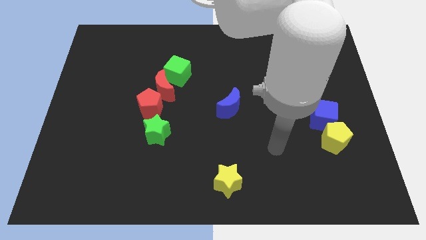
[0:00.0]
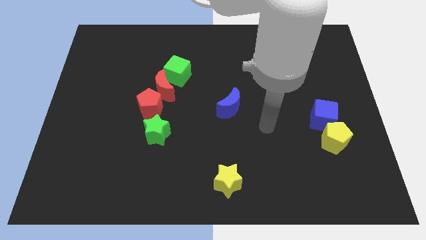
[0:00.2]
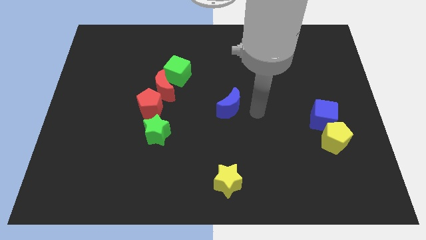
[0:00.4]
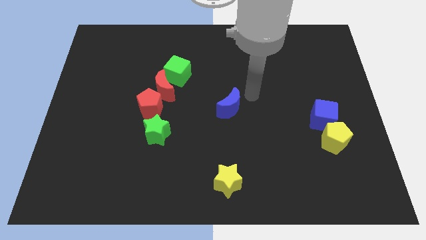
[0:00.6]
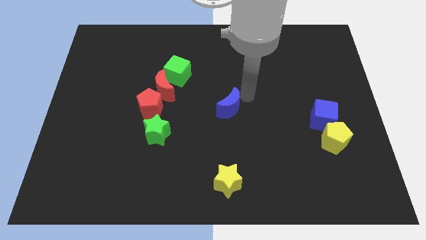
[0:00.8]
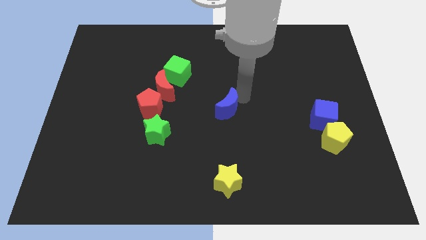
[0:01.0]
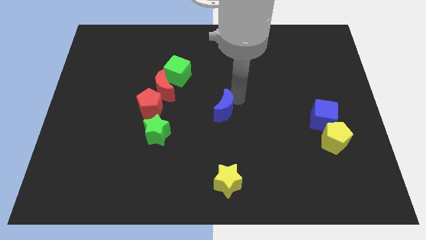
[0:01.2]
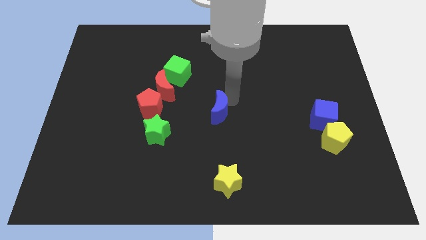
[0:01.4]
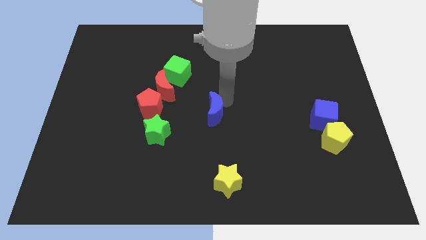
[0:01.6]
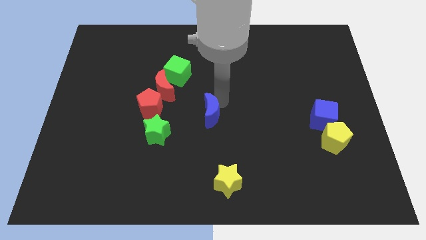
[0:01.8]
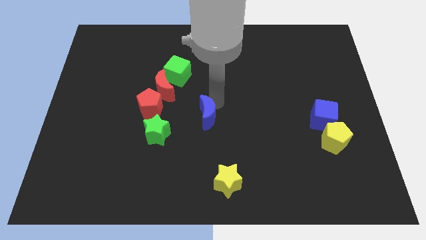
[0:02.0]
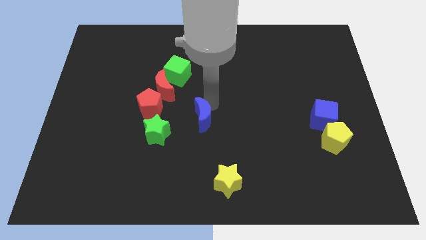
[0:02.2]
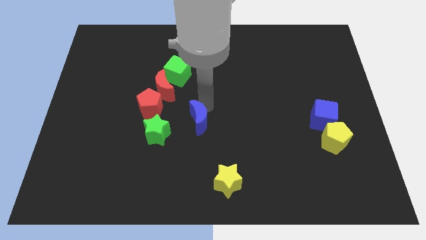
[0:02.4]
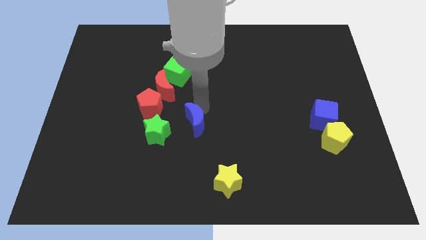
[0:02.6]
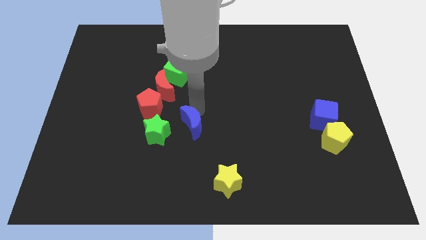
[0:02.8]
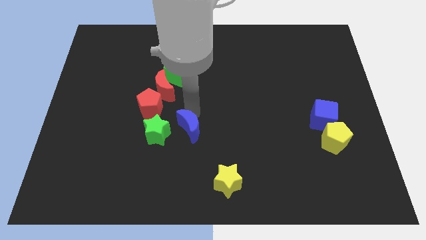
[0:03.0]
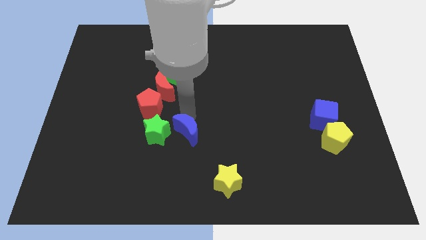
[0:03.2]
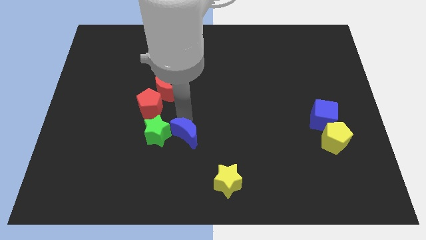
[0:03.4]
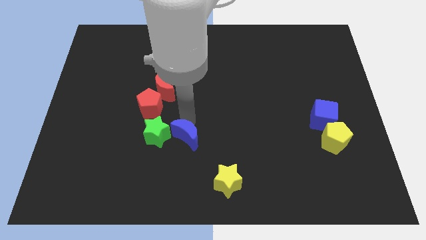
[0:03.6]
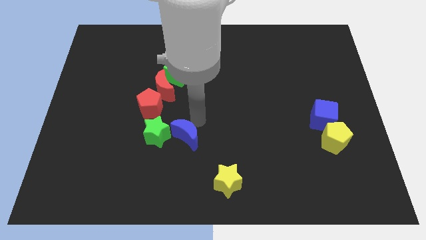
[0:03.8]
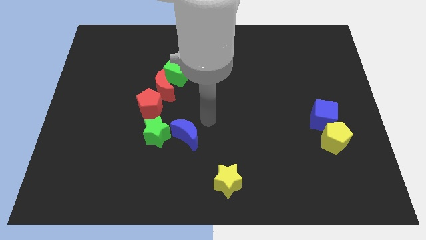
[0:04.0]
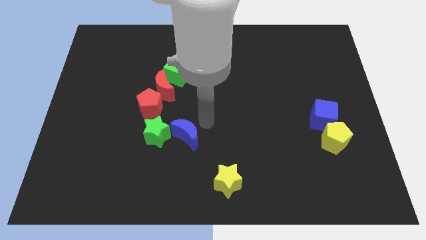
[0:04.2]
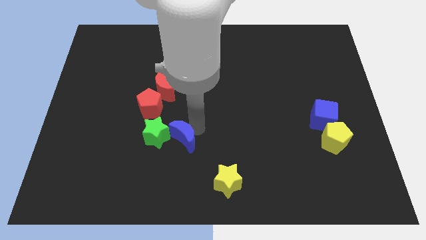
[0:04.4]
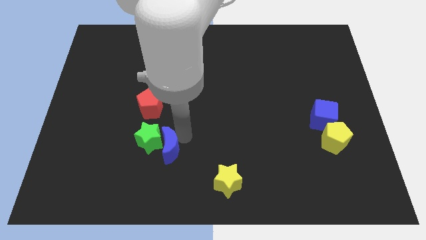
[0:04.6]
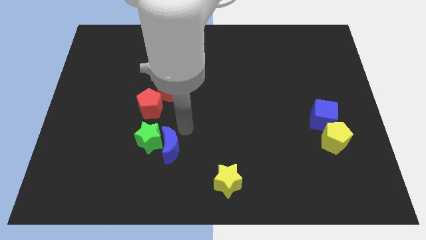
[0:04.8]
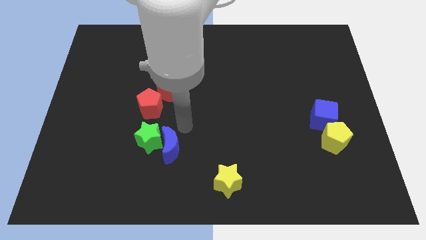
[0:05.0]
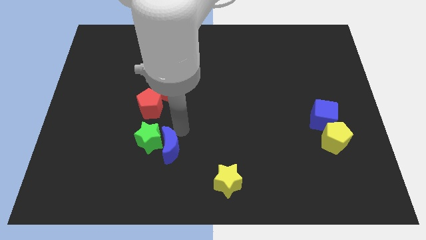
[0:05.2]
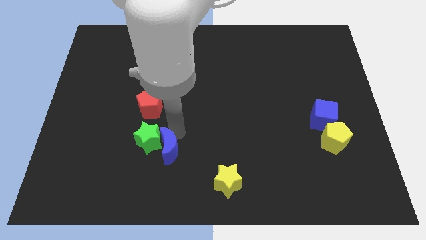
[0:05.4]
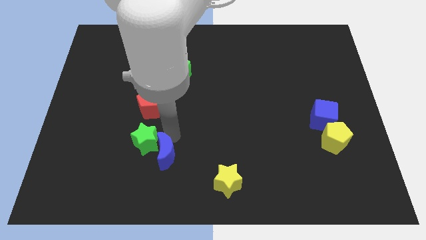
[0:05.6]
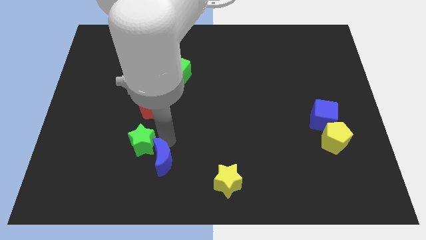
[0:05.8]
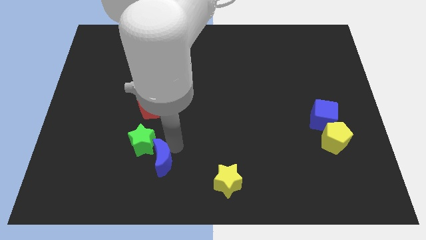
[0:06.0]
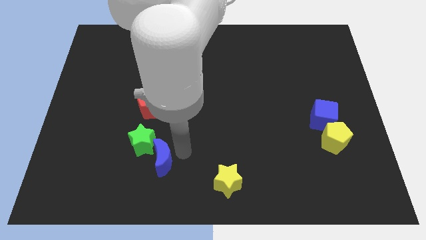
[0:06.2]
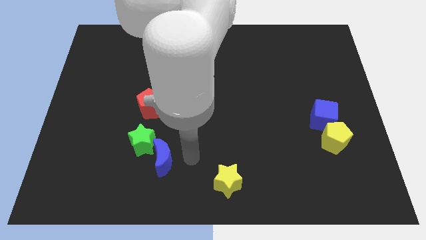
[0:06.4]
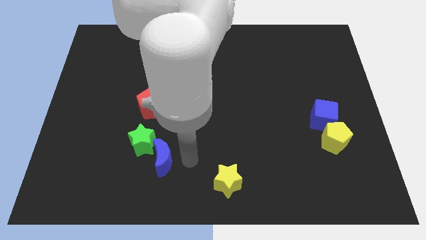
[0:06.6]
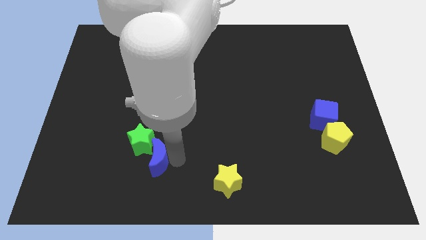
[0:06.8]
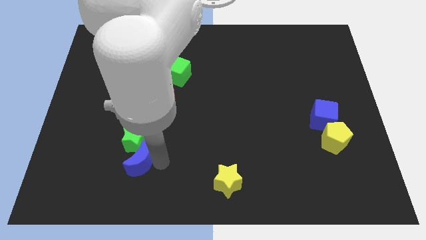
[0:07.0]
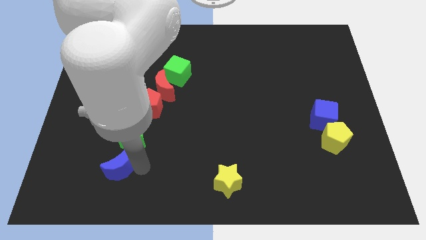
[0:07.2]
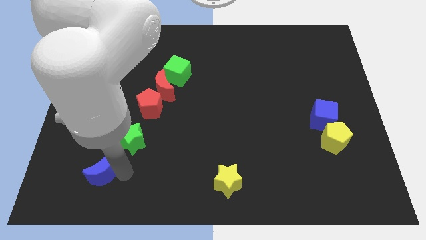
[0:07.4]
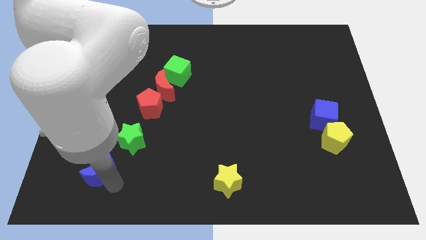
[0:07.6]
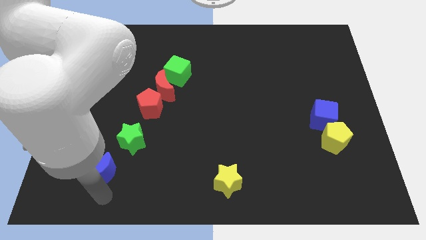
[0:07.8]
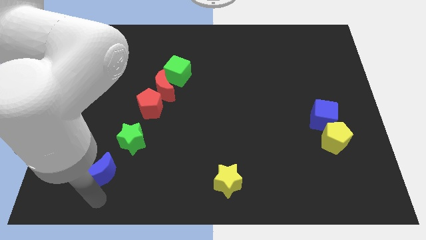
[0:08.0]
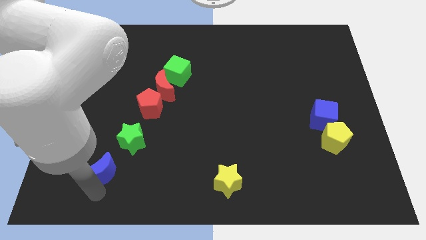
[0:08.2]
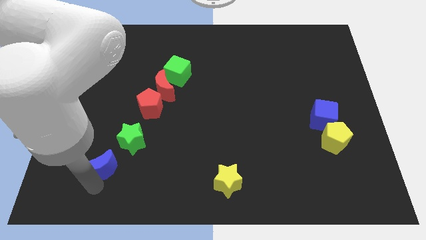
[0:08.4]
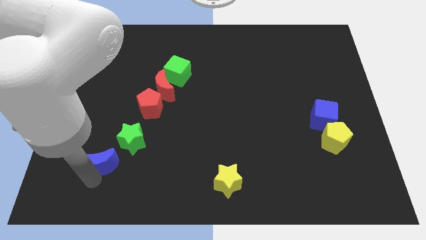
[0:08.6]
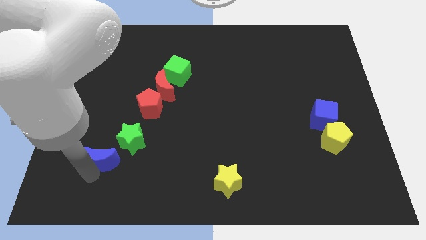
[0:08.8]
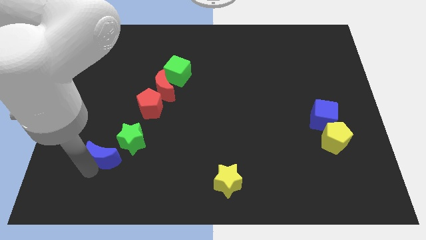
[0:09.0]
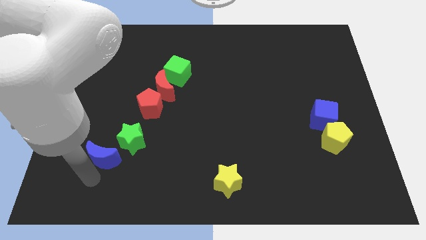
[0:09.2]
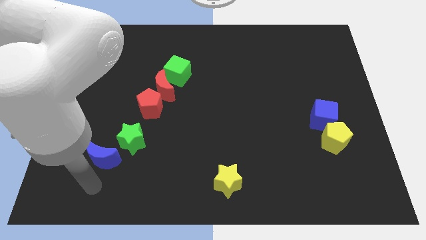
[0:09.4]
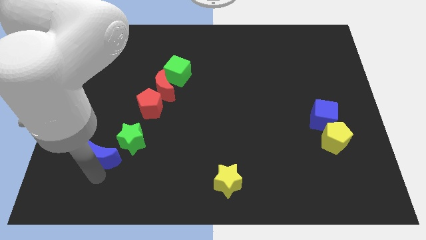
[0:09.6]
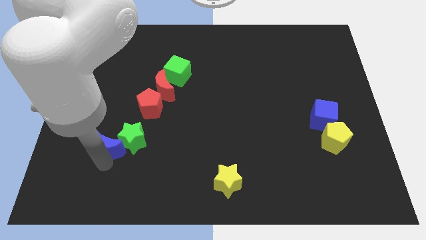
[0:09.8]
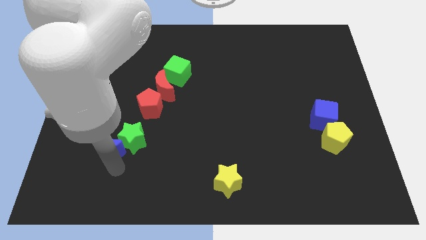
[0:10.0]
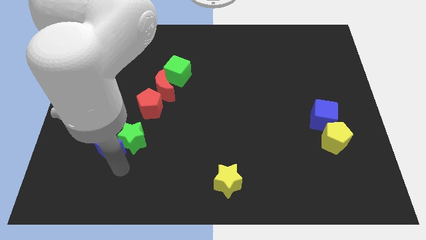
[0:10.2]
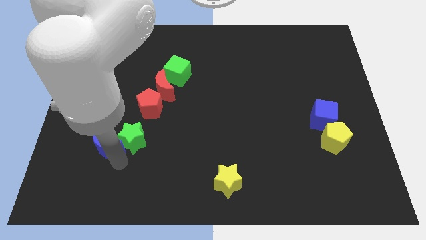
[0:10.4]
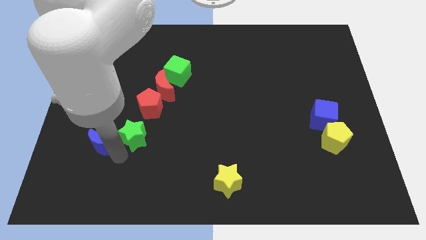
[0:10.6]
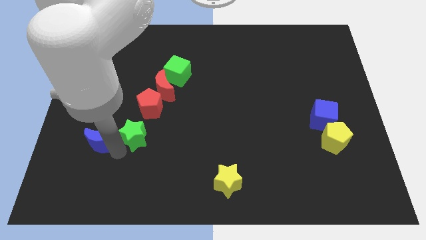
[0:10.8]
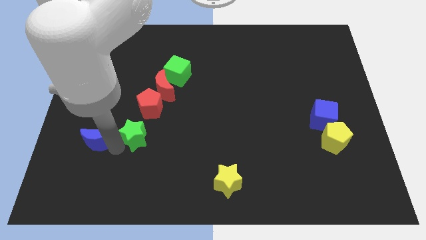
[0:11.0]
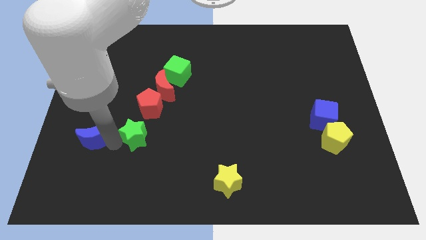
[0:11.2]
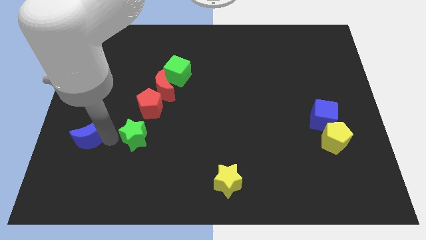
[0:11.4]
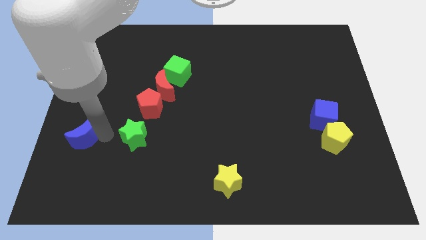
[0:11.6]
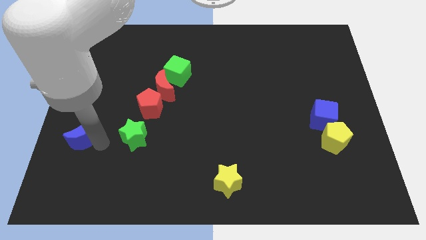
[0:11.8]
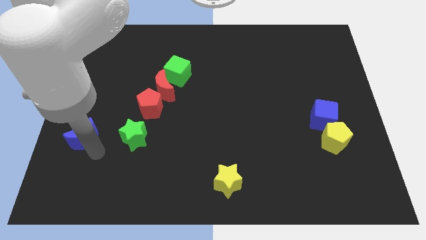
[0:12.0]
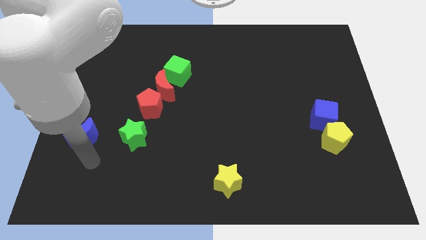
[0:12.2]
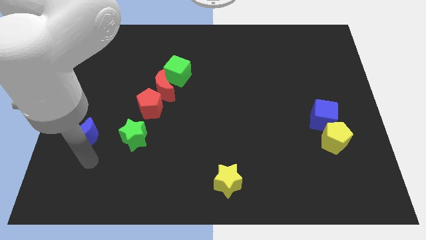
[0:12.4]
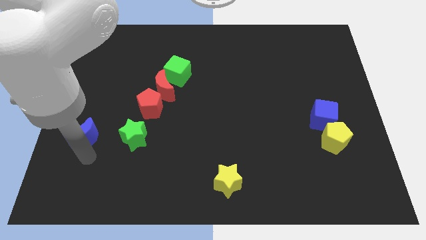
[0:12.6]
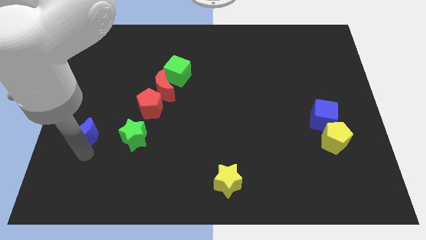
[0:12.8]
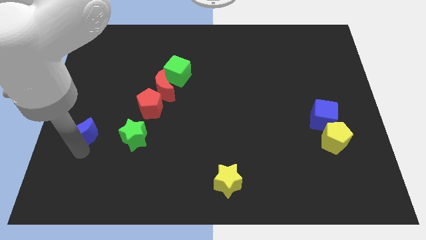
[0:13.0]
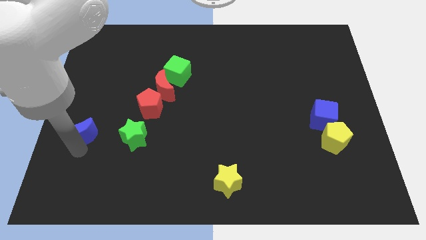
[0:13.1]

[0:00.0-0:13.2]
move the blue moon to the left side

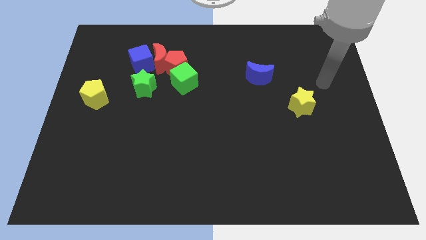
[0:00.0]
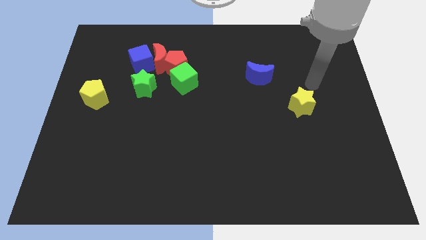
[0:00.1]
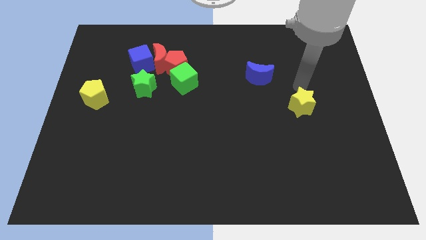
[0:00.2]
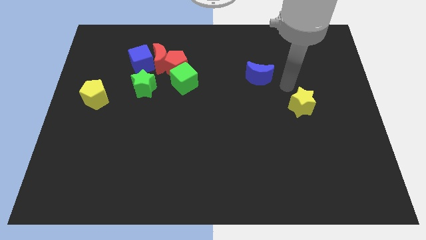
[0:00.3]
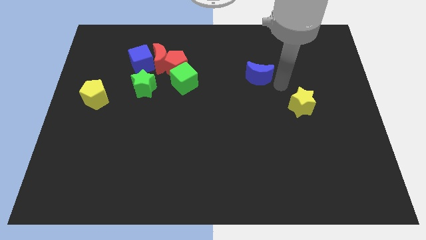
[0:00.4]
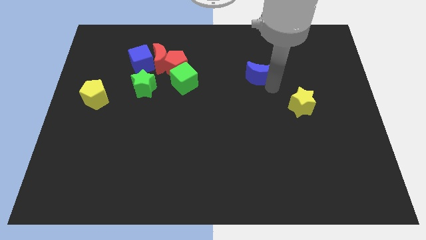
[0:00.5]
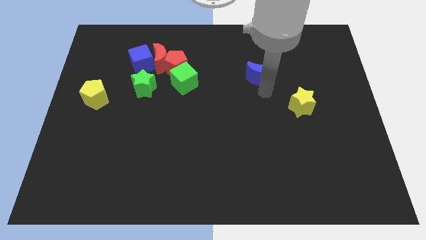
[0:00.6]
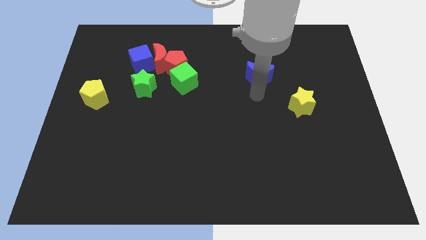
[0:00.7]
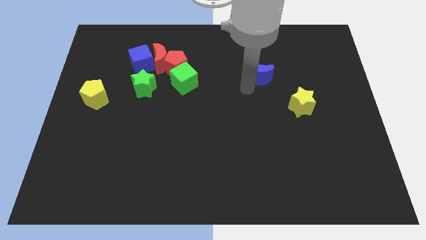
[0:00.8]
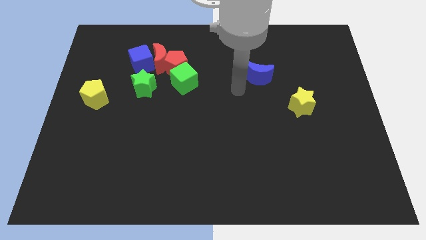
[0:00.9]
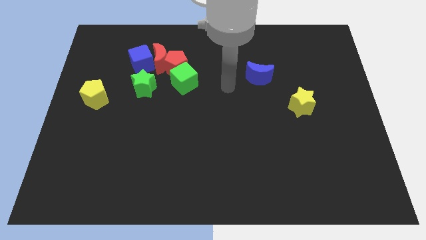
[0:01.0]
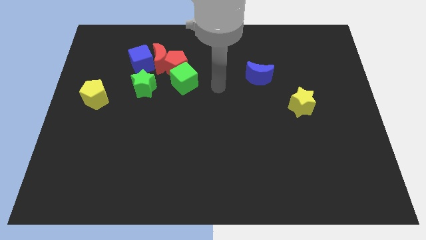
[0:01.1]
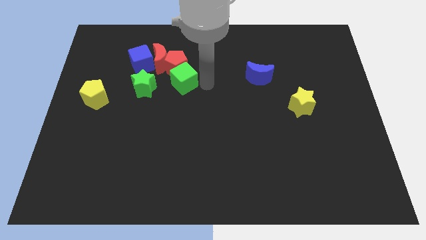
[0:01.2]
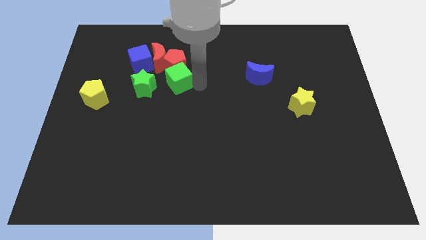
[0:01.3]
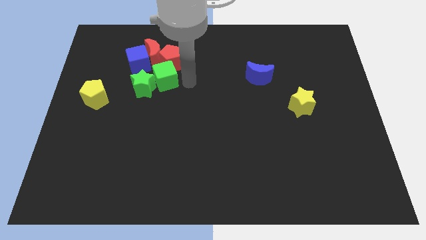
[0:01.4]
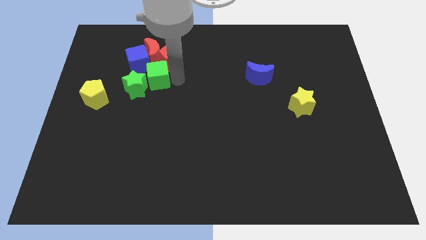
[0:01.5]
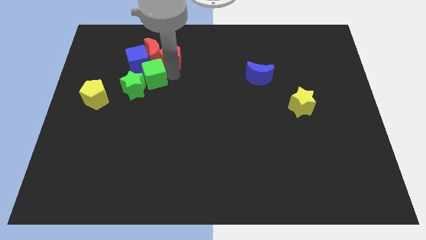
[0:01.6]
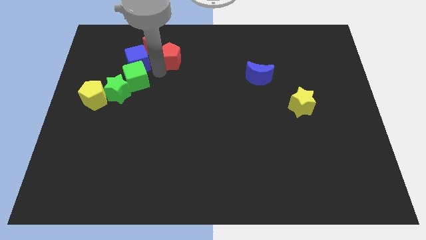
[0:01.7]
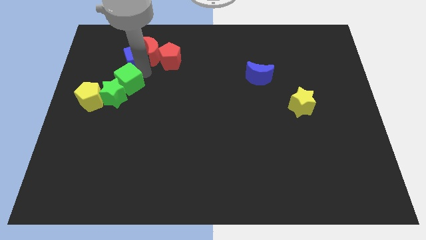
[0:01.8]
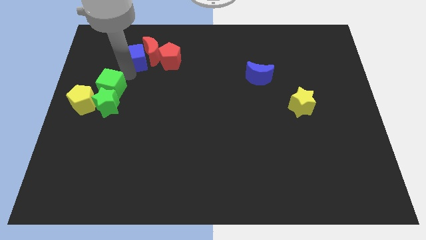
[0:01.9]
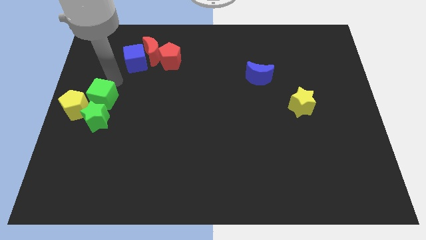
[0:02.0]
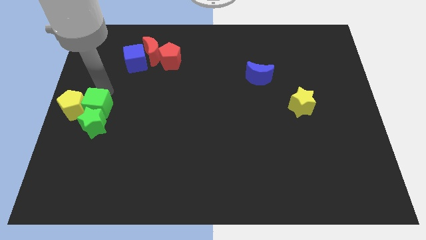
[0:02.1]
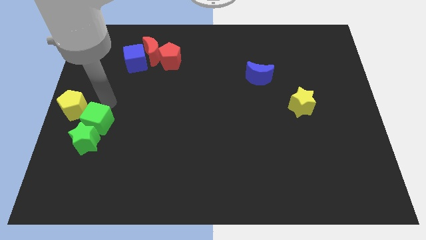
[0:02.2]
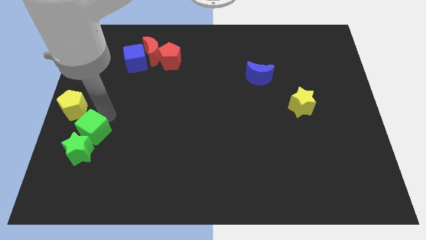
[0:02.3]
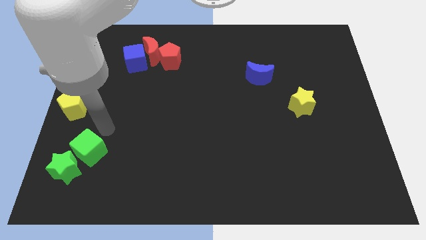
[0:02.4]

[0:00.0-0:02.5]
push the green star to the bottom left
